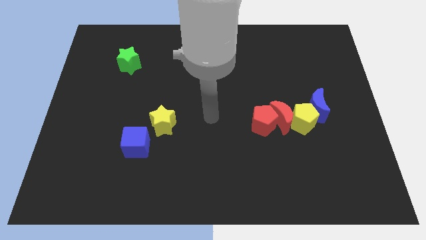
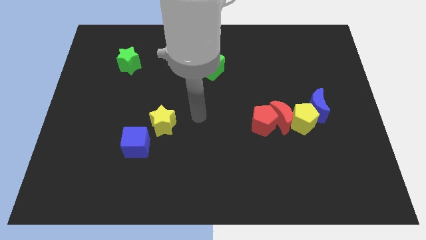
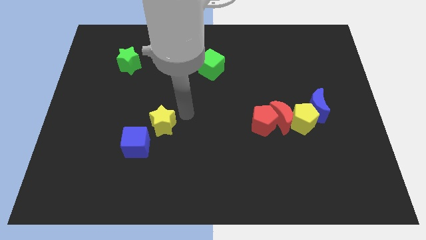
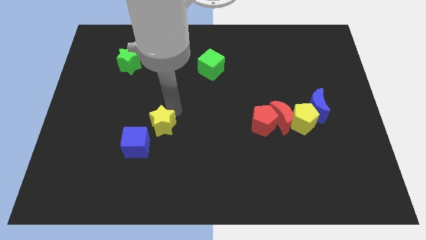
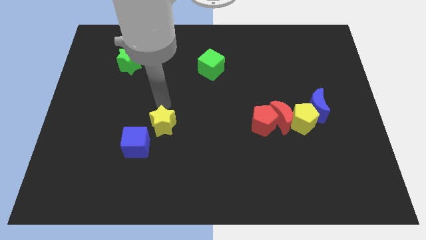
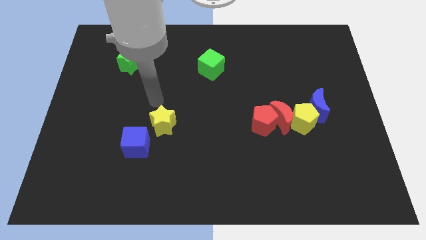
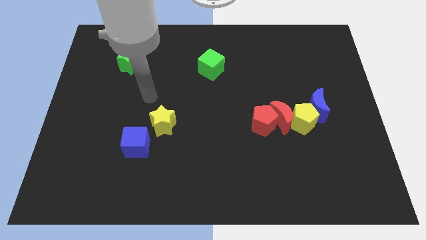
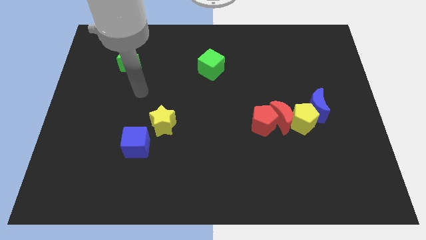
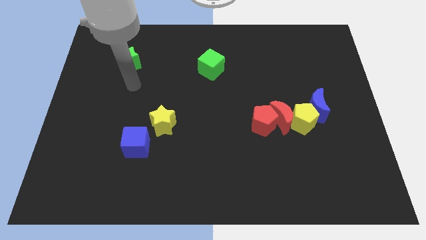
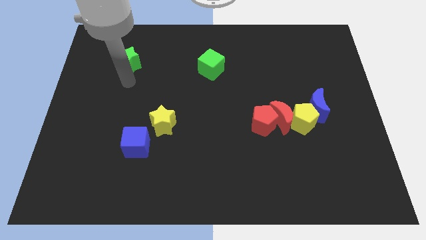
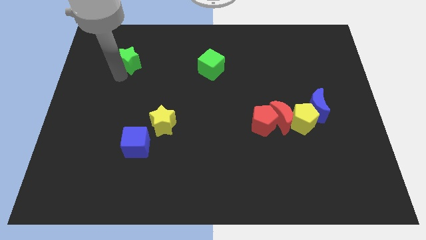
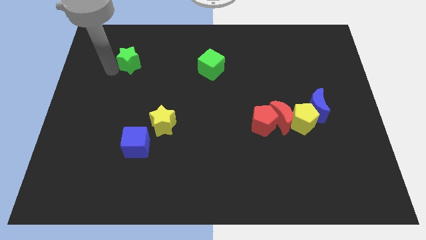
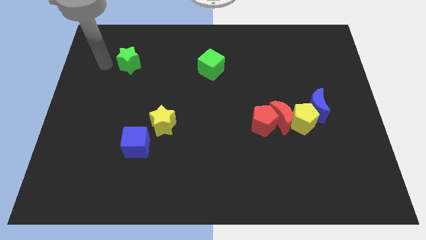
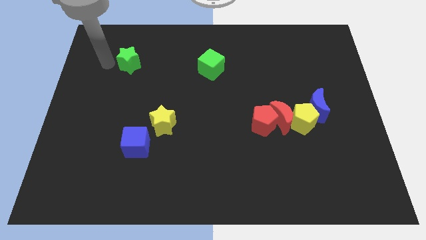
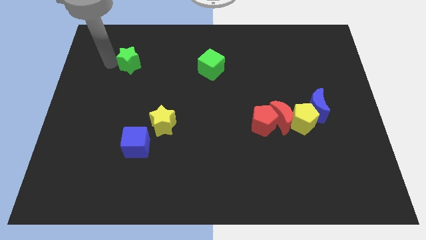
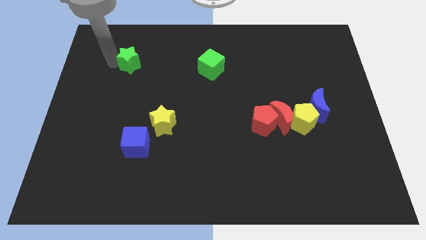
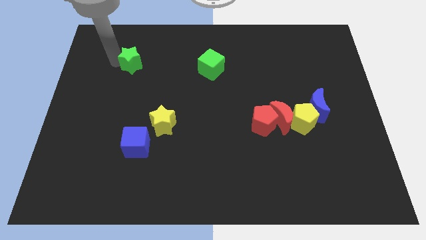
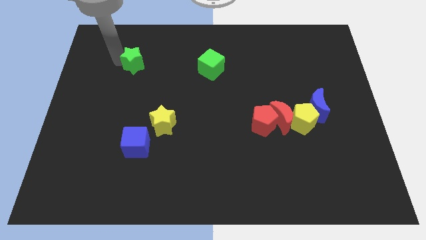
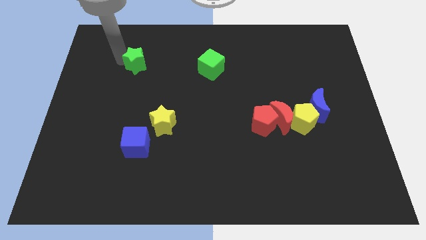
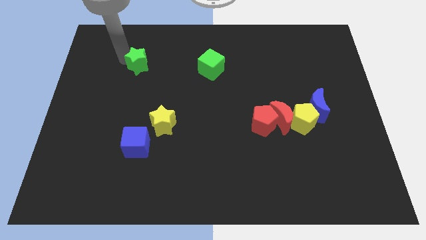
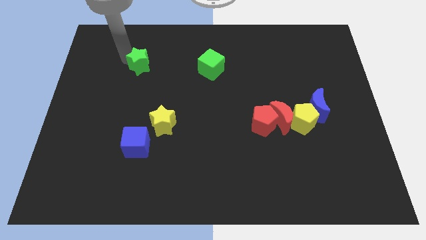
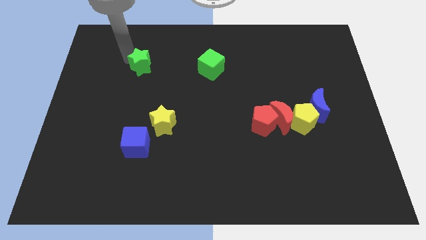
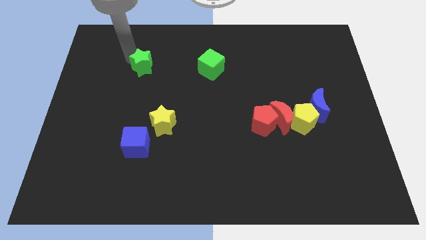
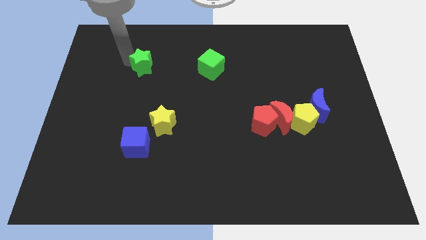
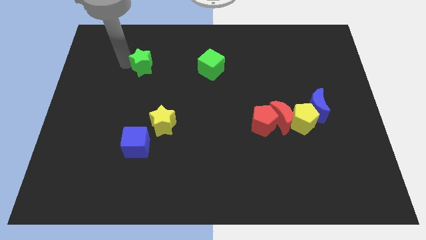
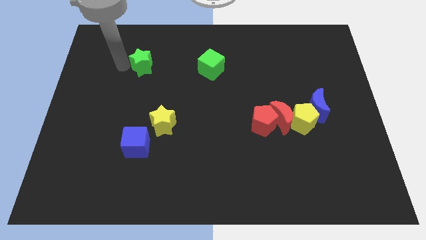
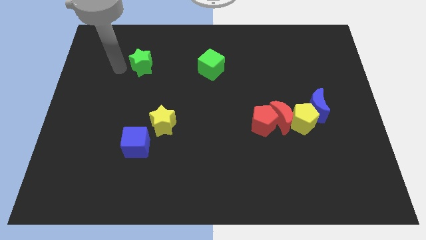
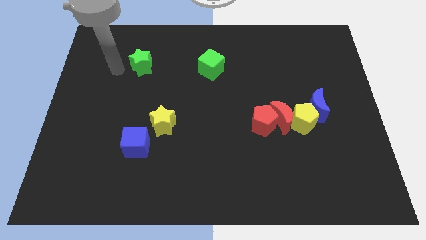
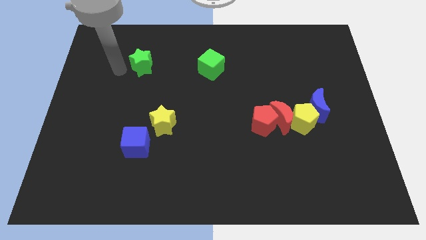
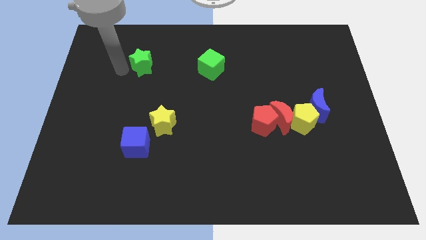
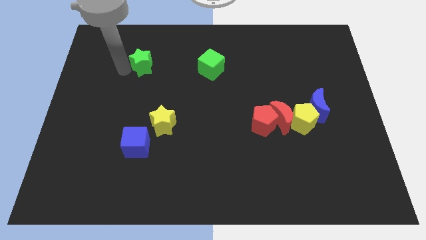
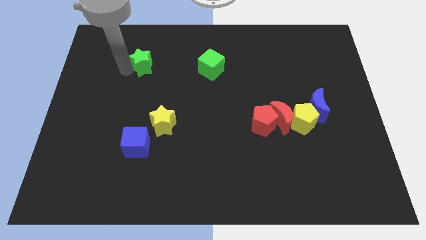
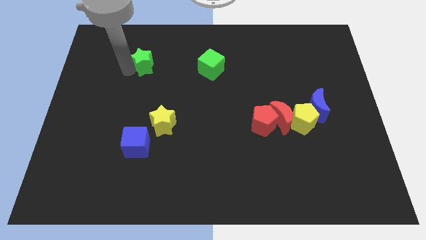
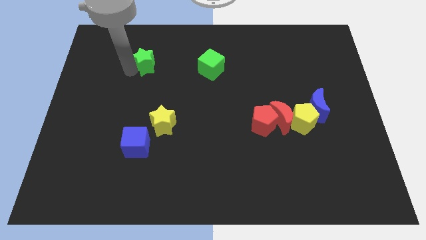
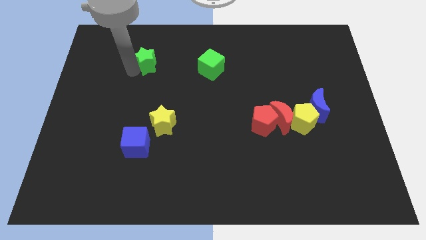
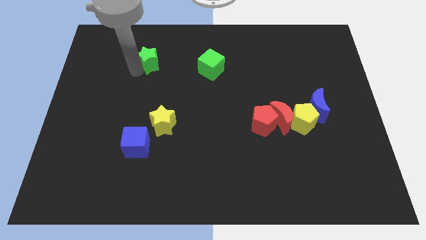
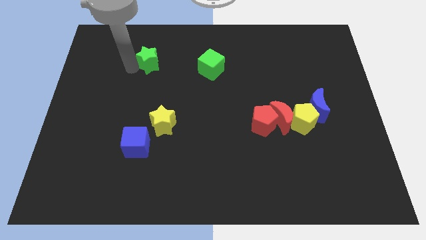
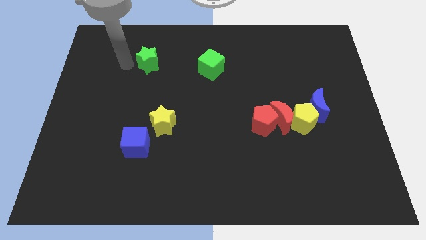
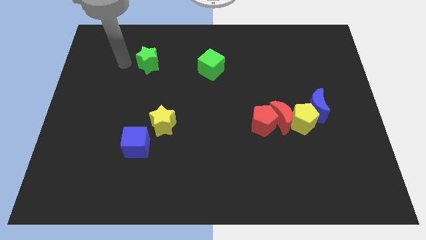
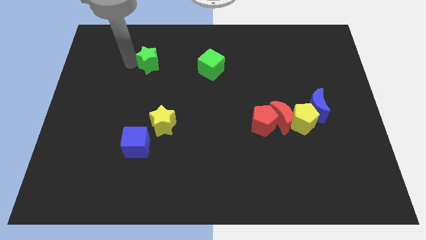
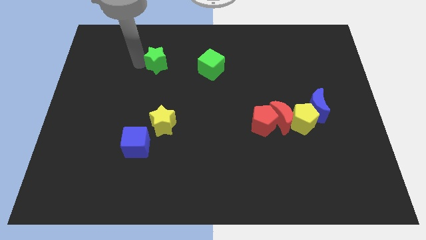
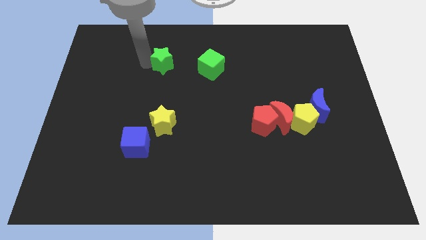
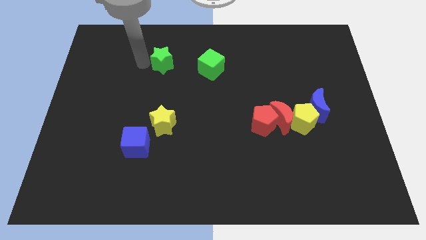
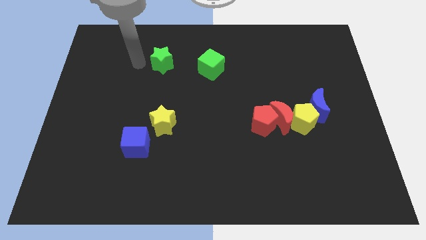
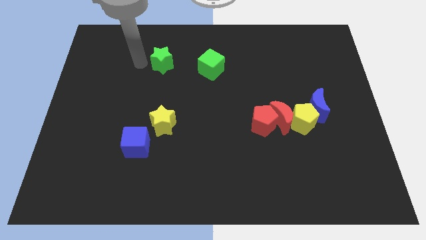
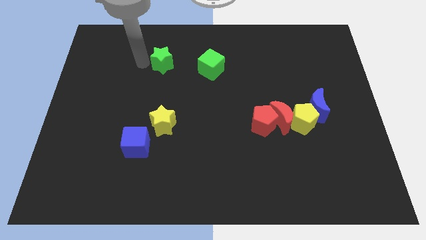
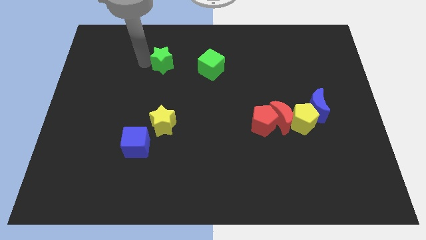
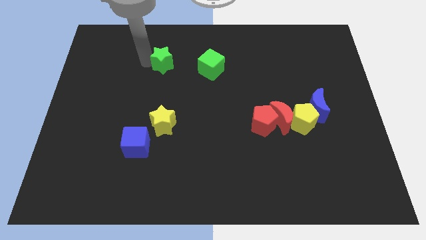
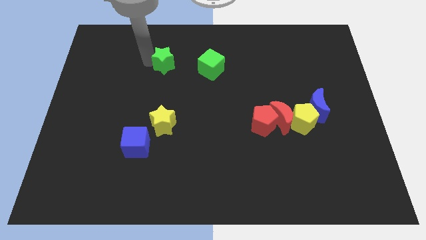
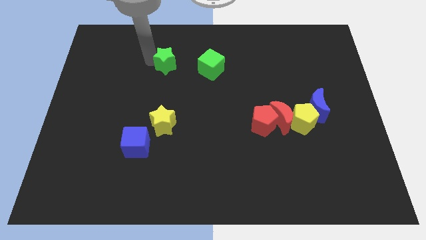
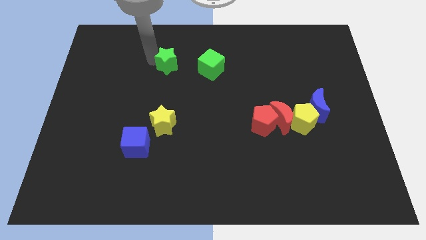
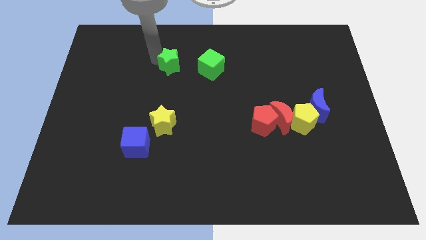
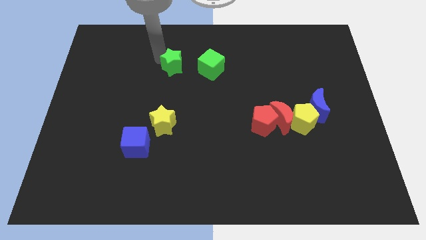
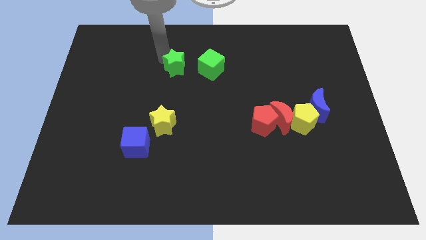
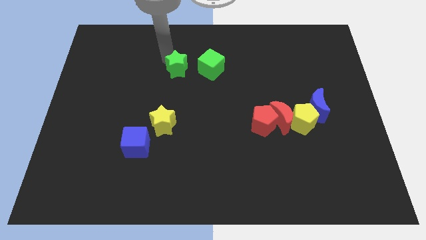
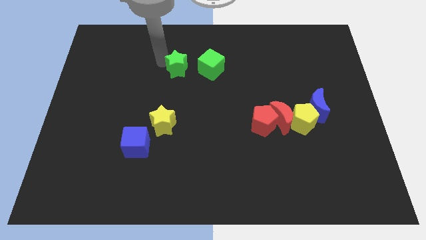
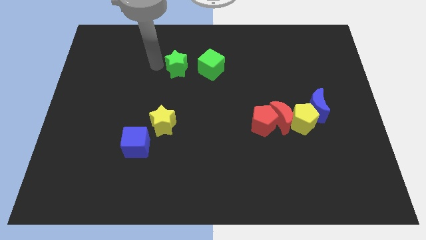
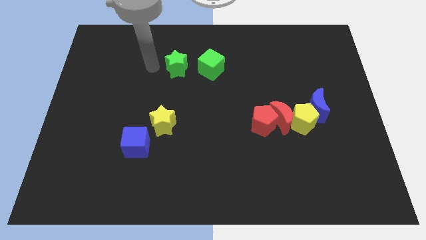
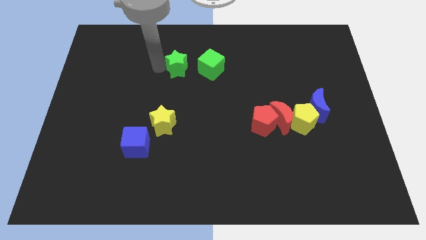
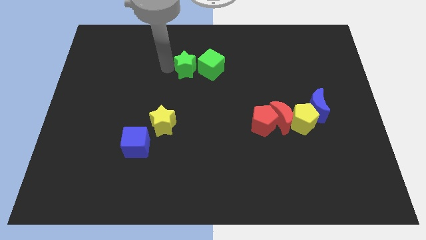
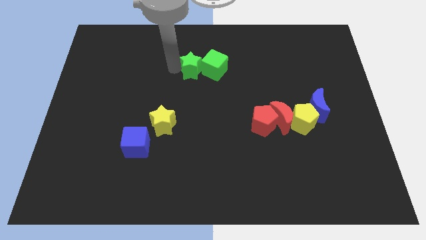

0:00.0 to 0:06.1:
put the green star close to the green cube

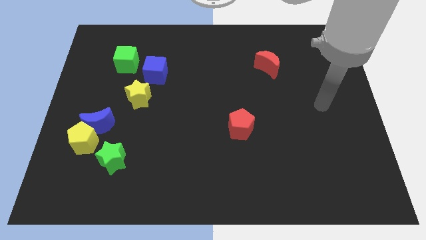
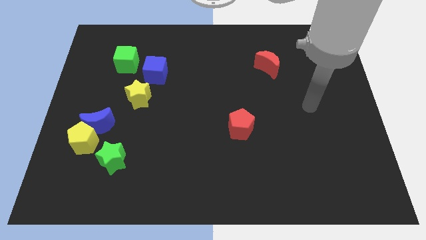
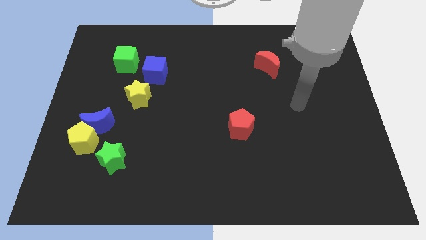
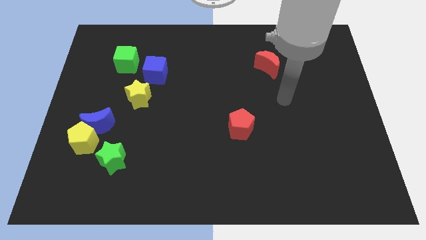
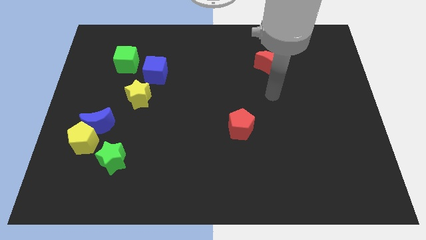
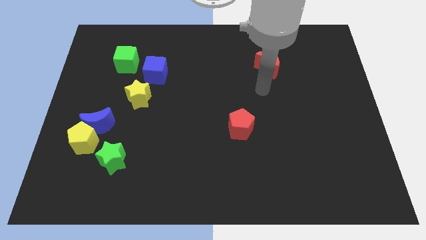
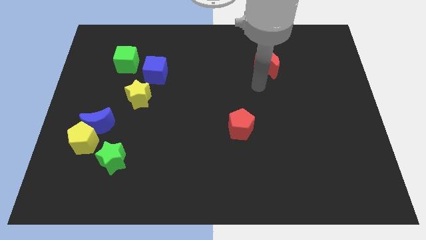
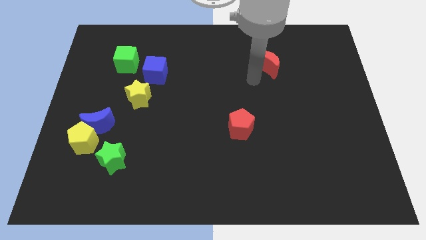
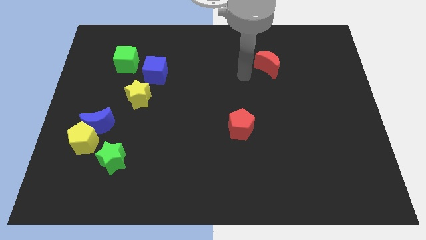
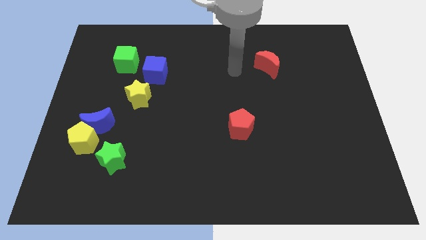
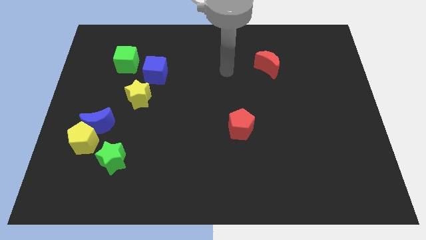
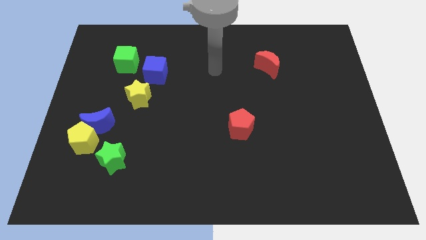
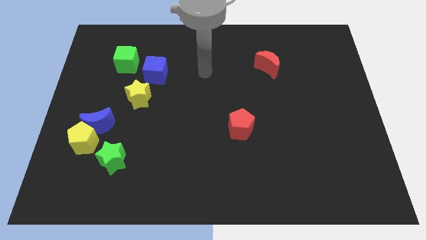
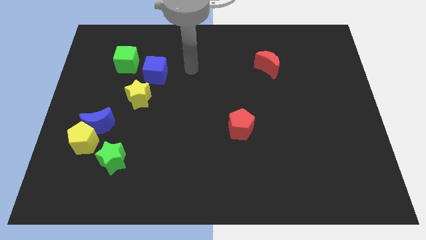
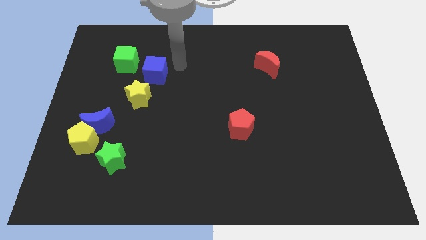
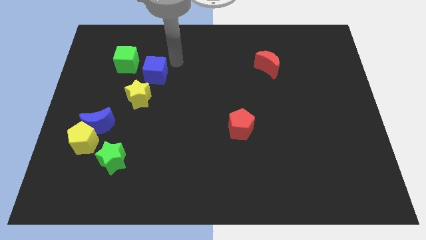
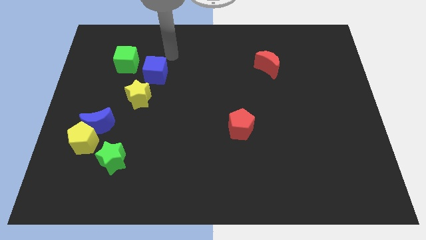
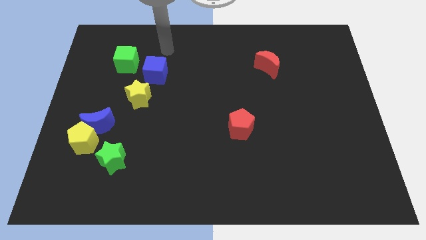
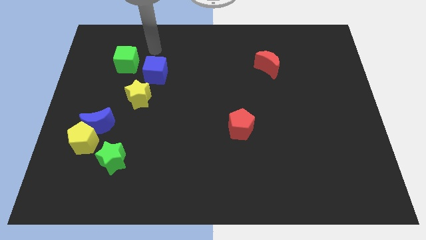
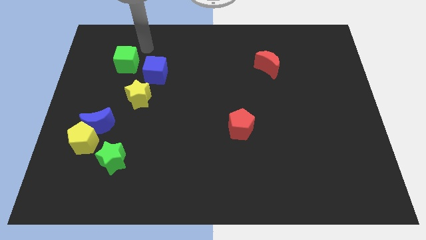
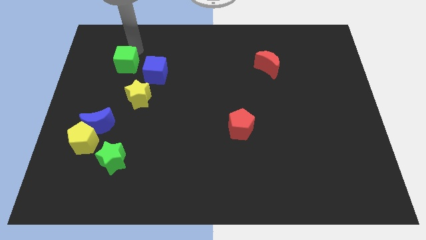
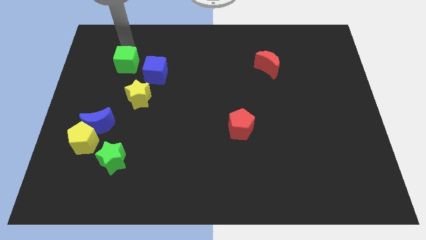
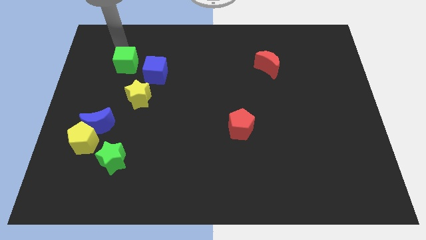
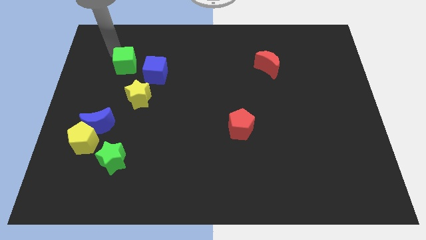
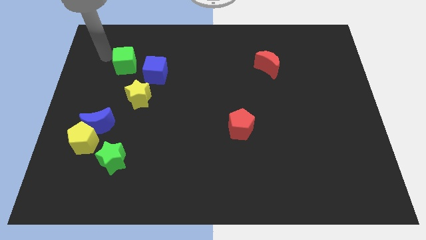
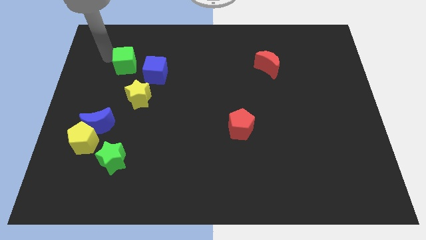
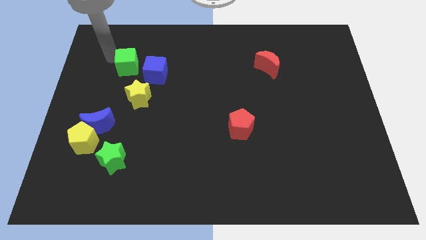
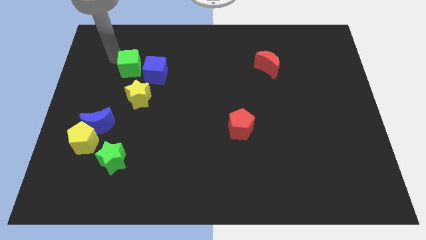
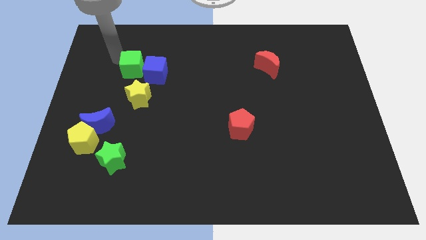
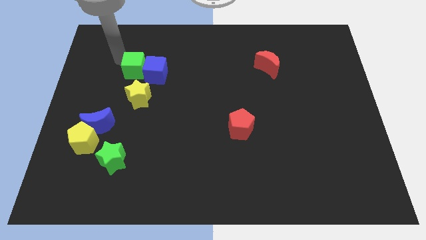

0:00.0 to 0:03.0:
push the green cube close to the blue cube
